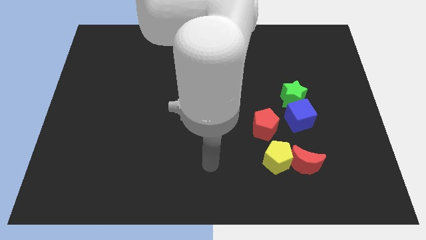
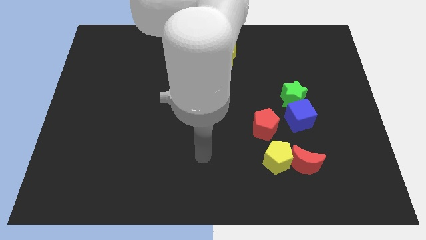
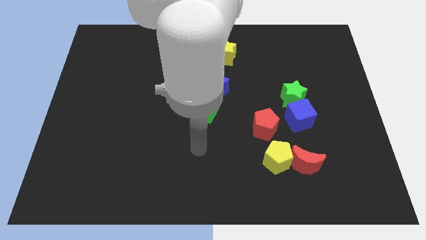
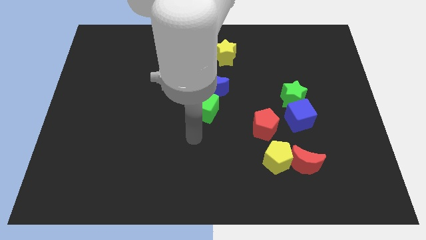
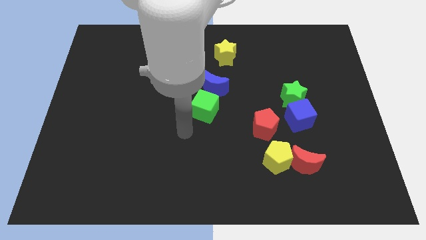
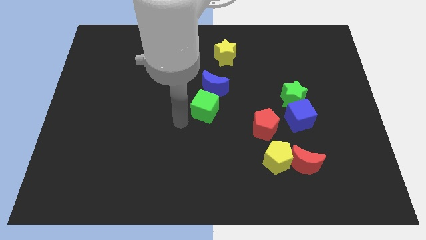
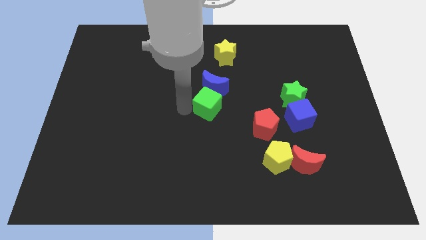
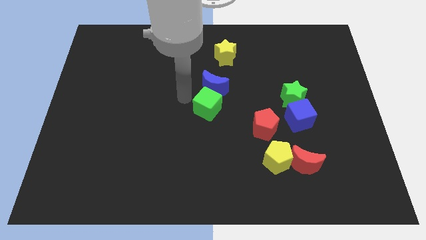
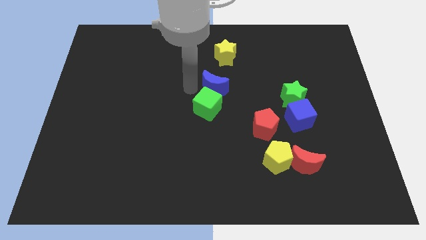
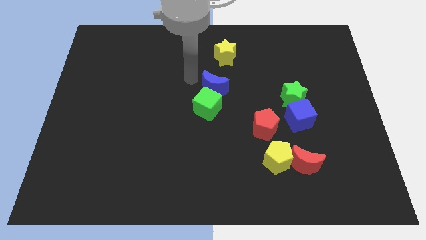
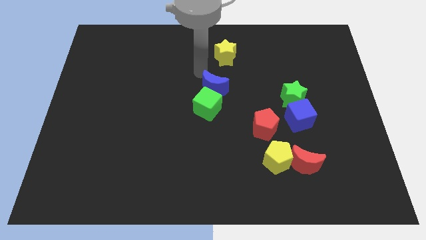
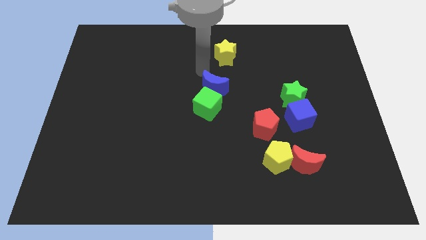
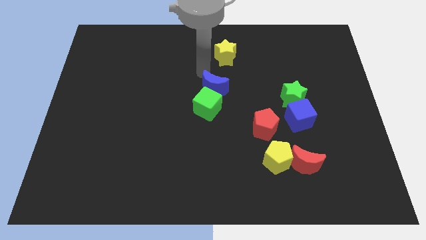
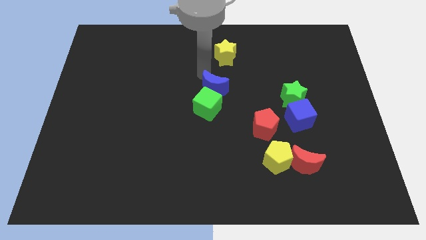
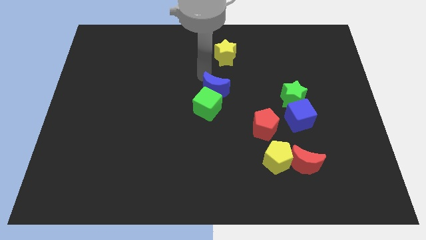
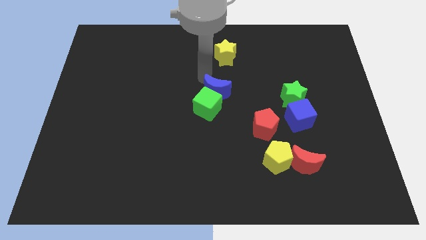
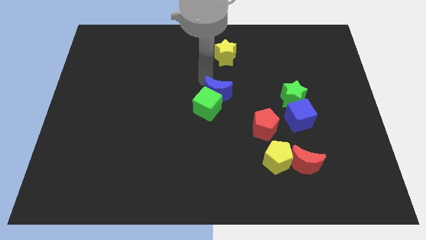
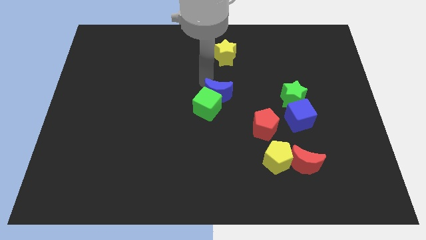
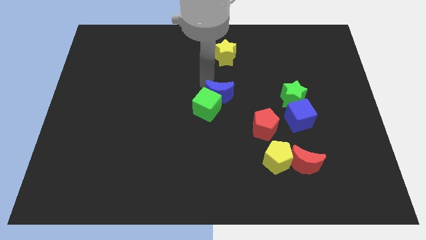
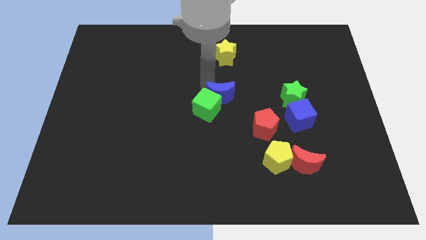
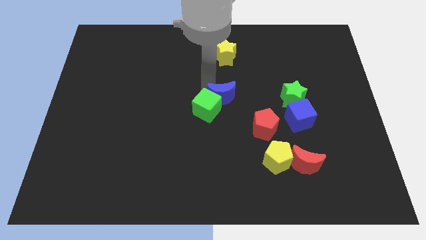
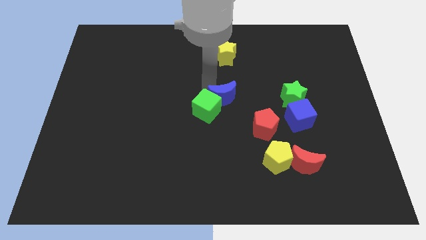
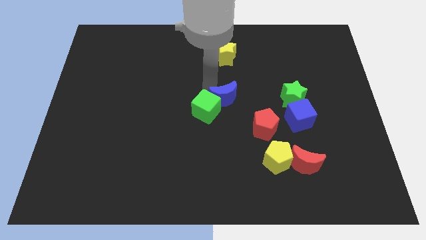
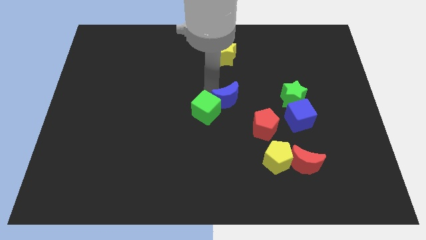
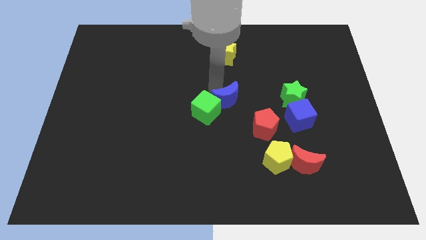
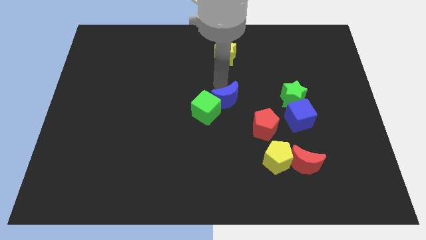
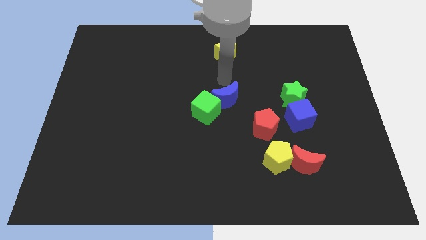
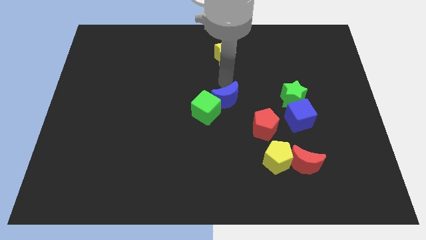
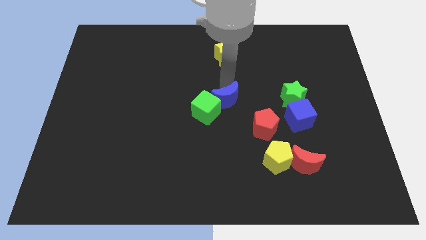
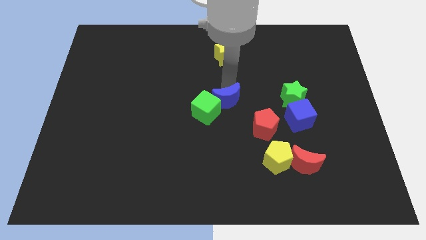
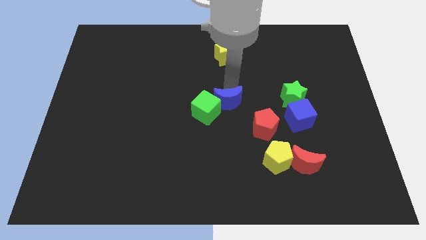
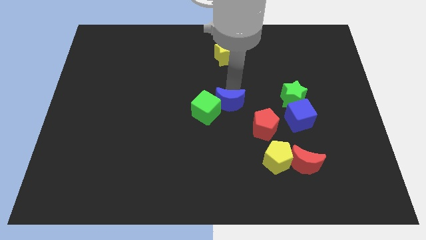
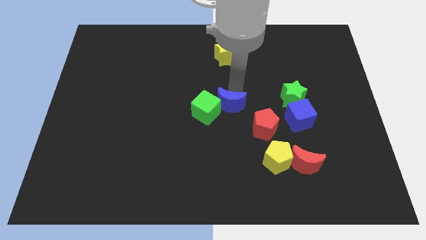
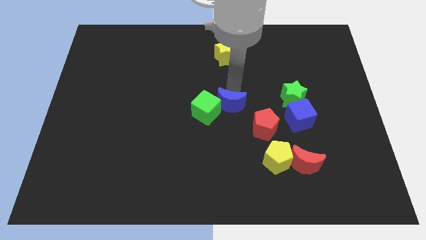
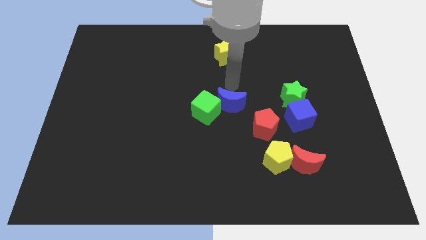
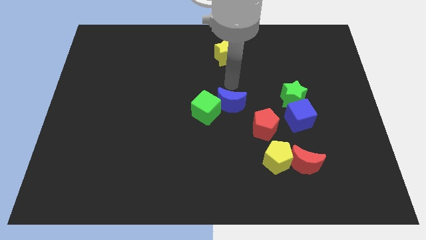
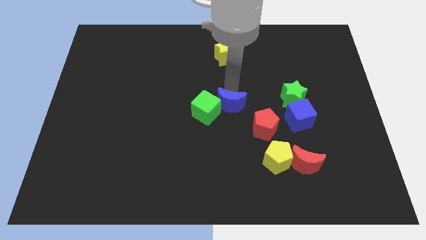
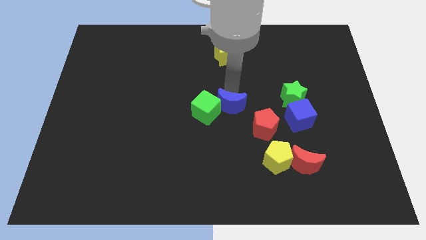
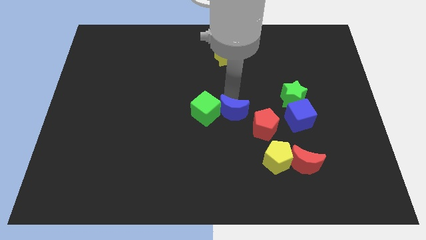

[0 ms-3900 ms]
move the blue moon downwards a little

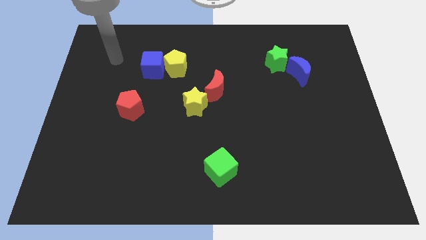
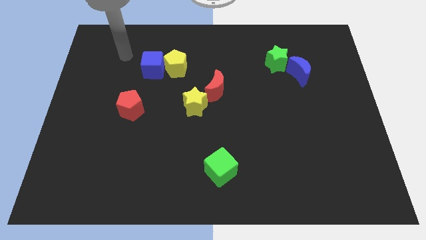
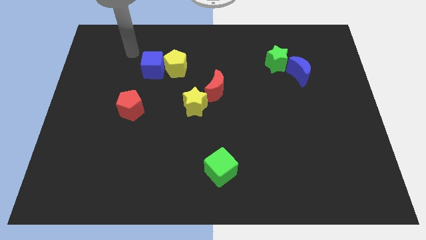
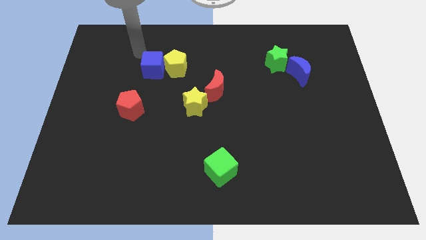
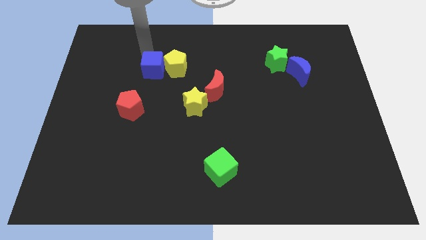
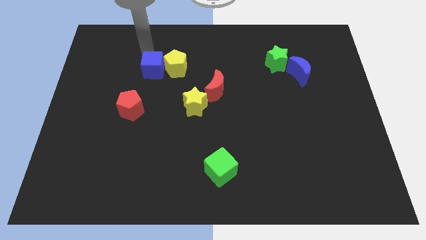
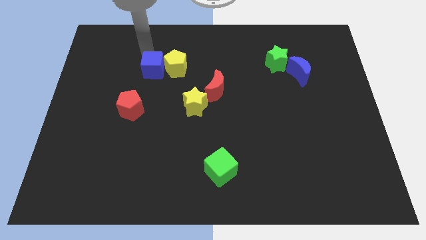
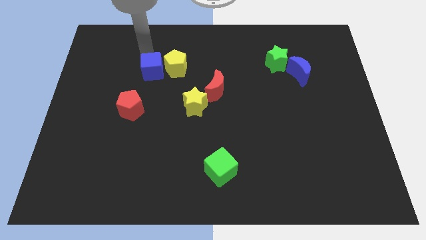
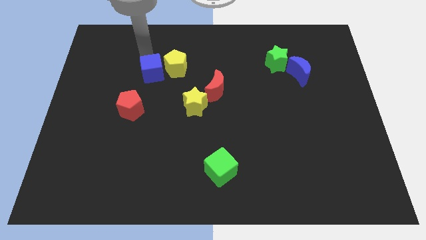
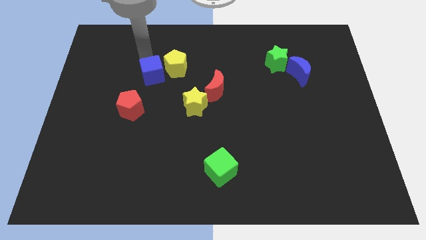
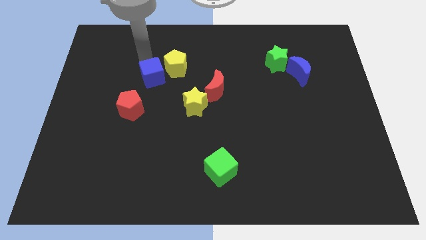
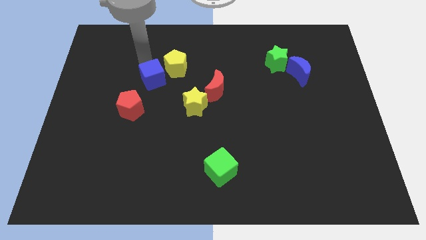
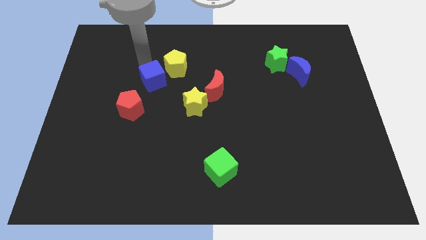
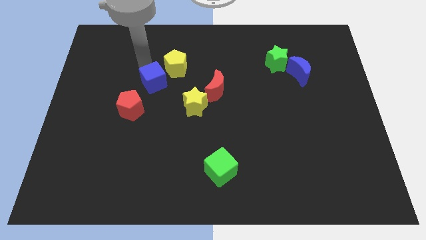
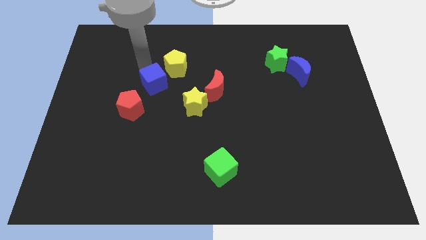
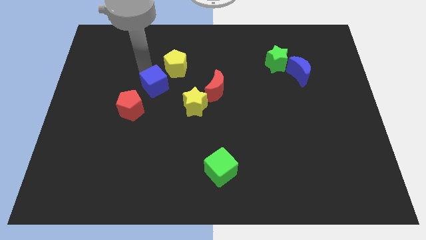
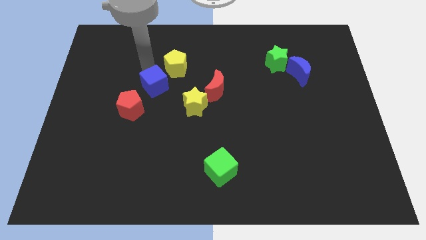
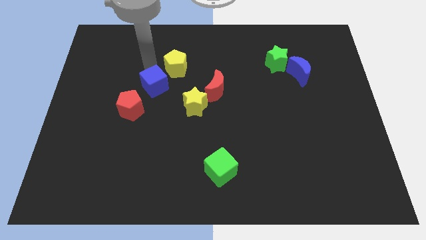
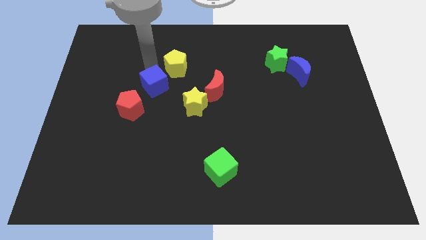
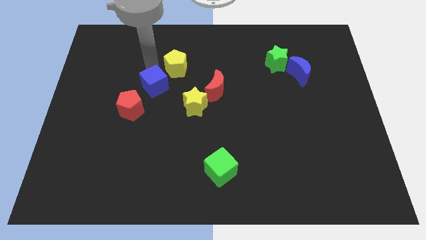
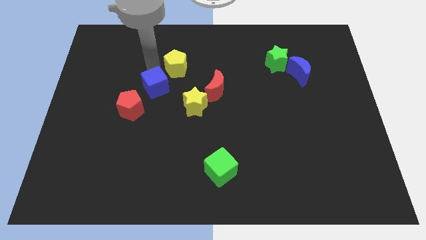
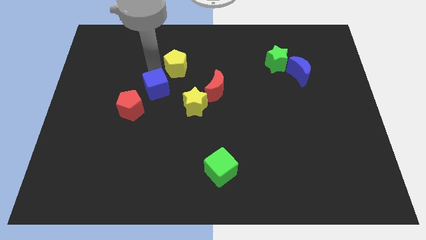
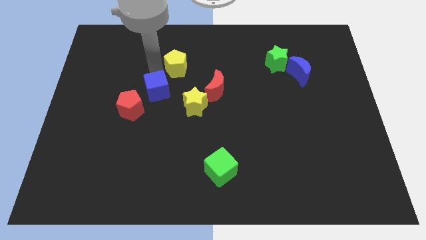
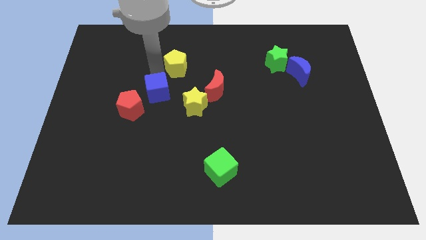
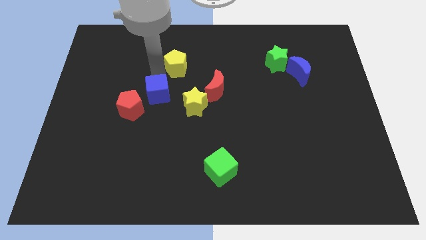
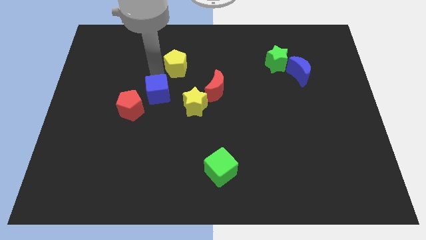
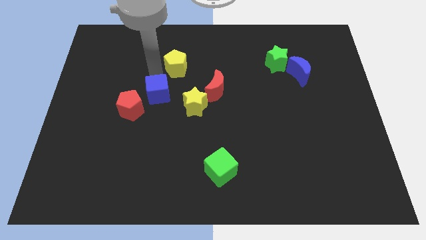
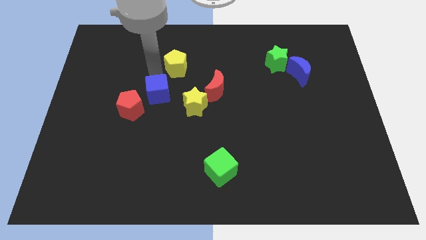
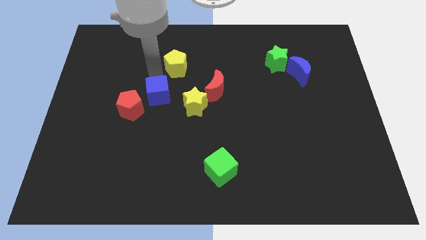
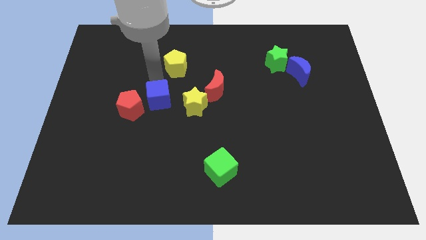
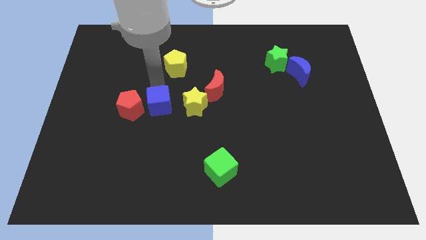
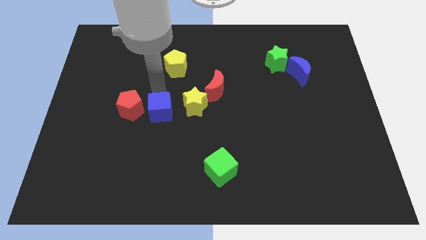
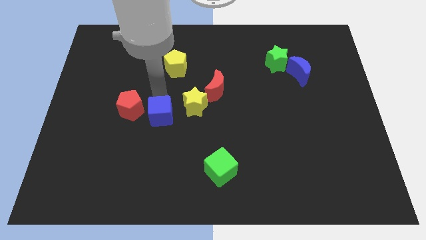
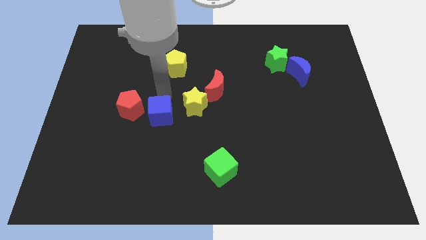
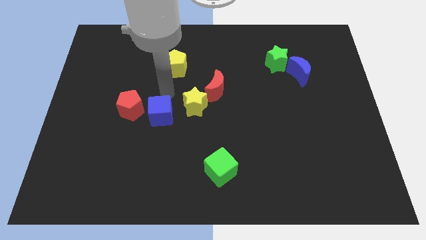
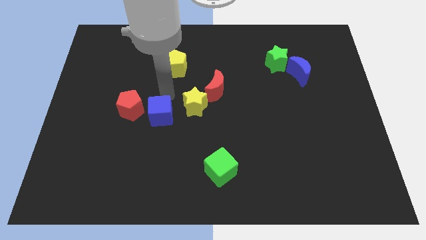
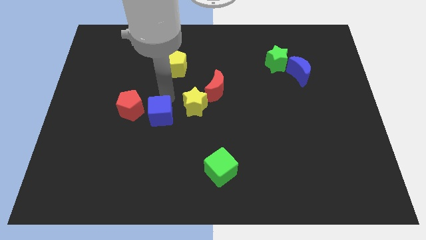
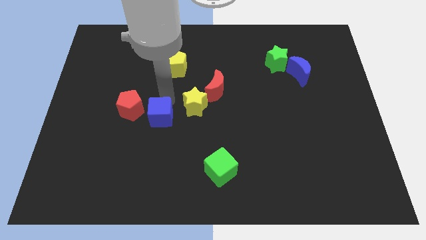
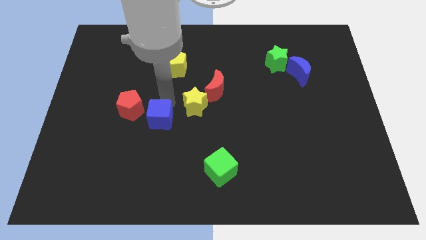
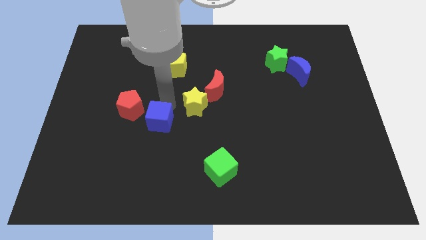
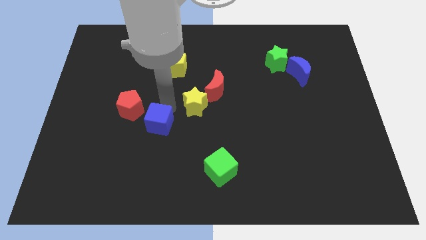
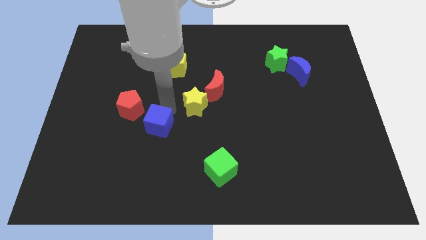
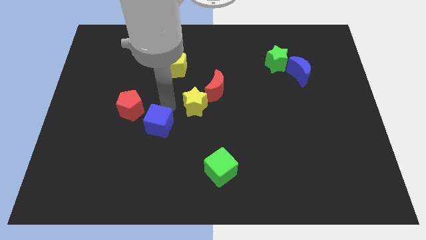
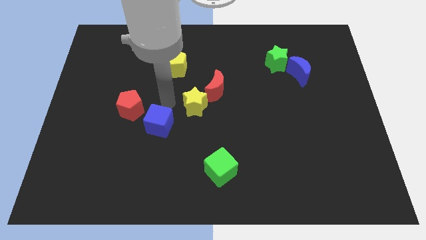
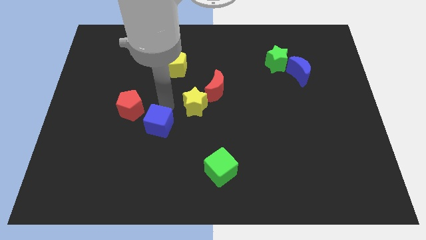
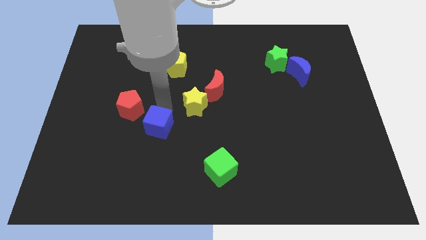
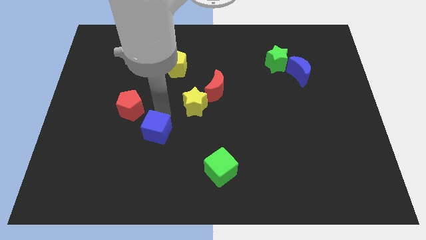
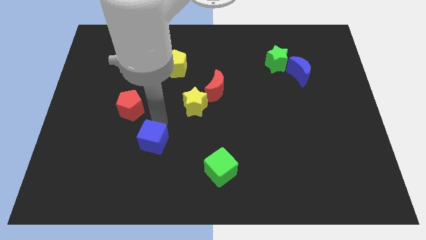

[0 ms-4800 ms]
slide the blue cube down
